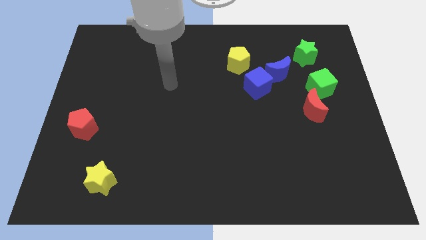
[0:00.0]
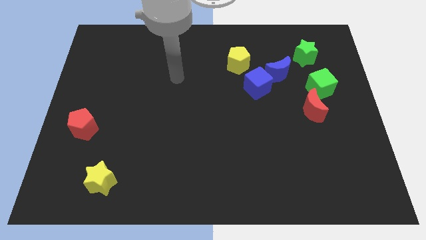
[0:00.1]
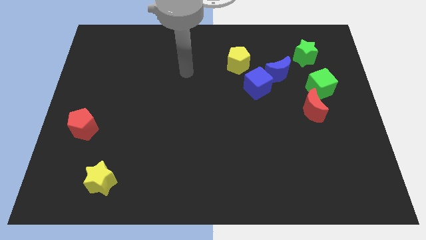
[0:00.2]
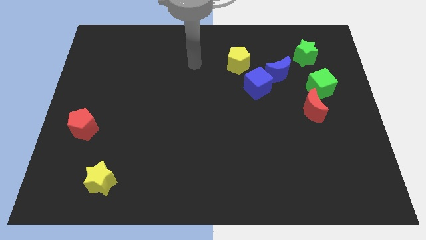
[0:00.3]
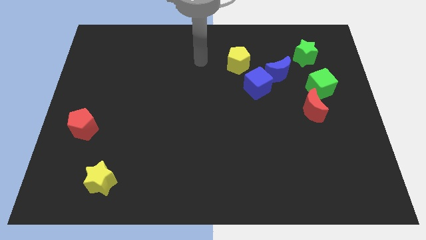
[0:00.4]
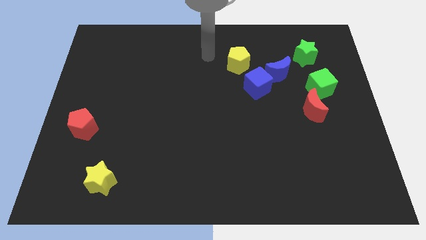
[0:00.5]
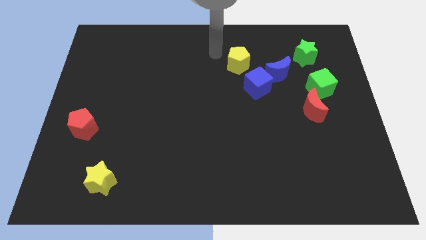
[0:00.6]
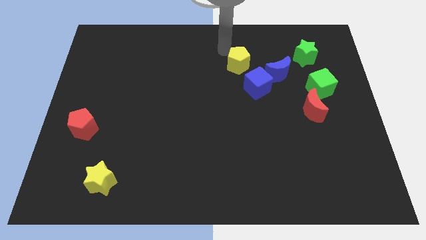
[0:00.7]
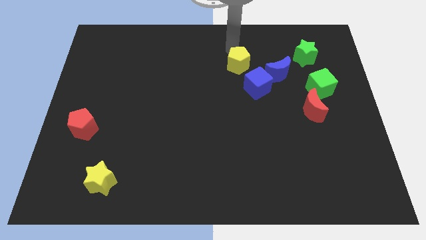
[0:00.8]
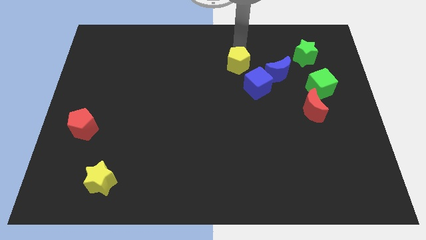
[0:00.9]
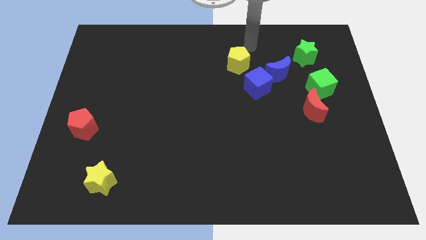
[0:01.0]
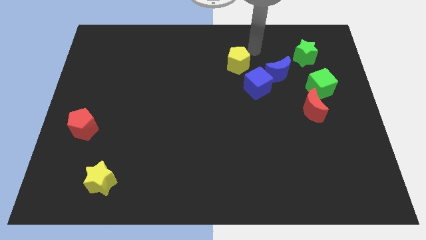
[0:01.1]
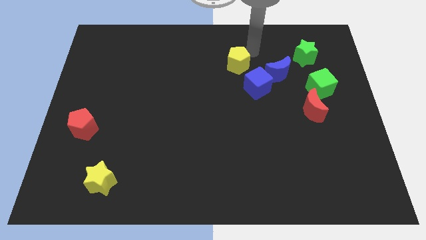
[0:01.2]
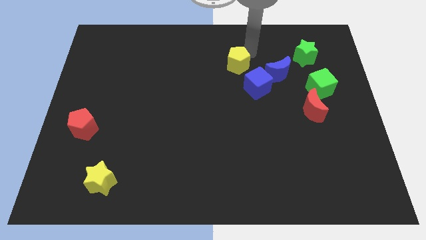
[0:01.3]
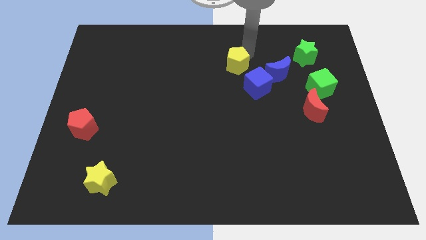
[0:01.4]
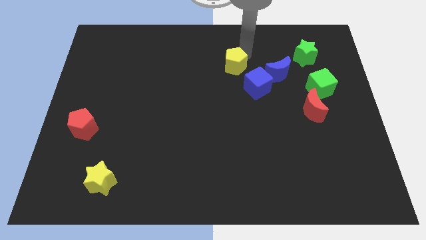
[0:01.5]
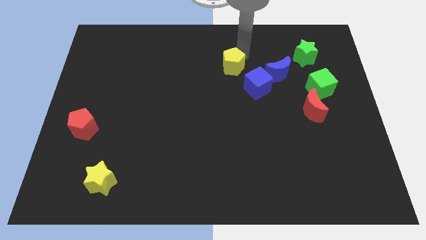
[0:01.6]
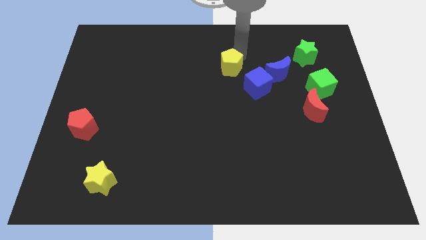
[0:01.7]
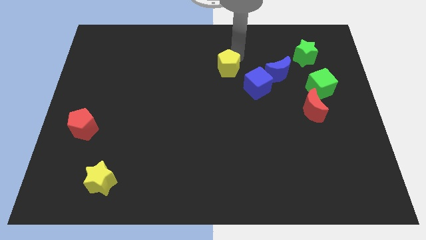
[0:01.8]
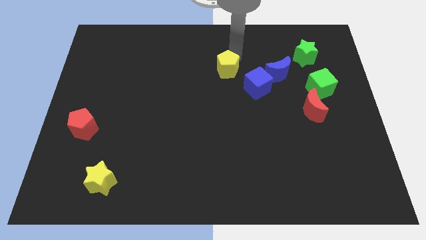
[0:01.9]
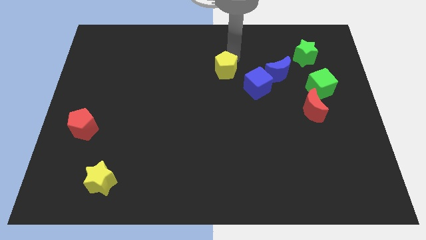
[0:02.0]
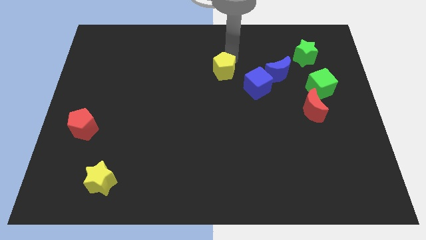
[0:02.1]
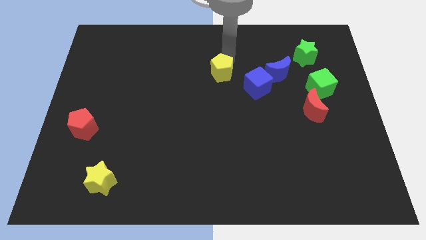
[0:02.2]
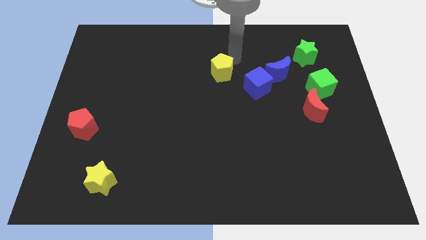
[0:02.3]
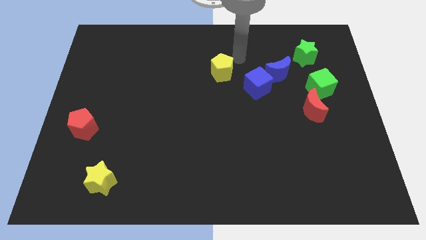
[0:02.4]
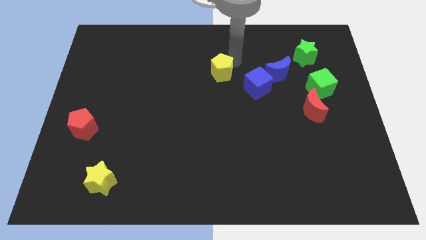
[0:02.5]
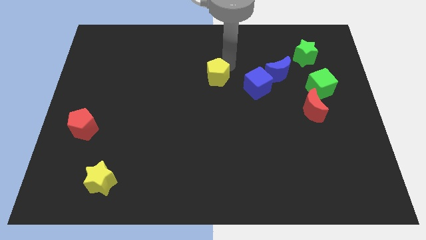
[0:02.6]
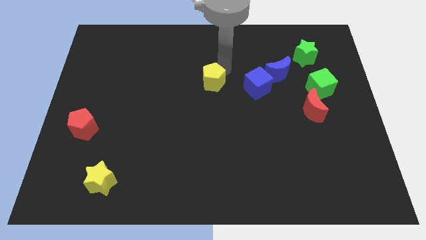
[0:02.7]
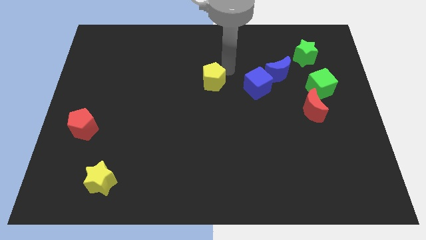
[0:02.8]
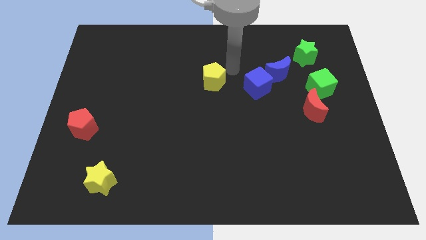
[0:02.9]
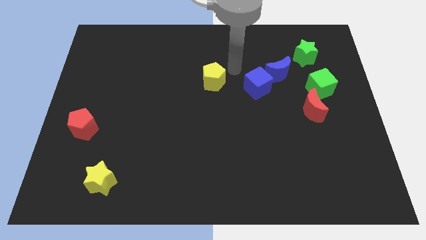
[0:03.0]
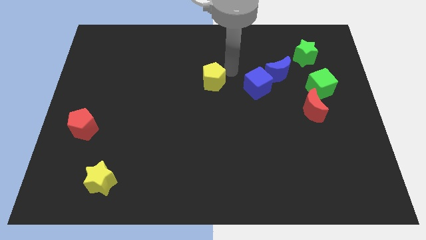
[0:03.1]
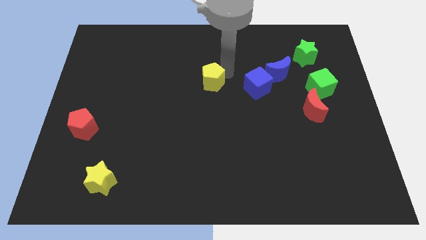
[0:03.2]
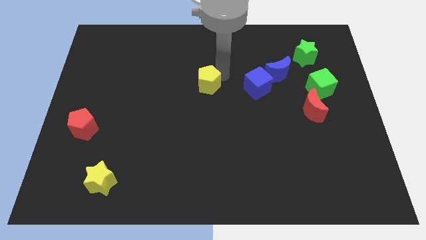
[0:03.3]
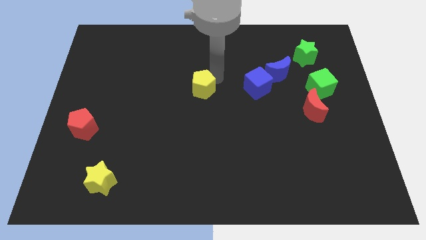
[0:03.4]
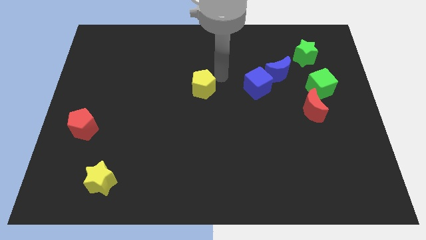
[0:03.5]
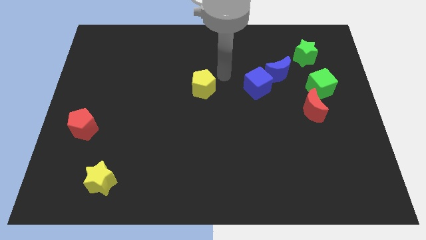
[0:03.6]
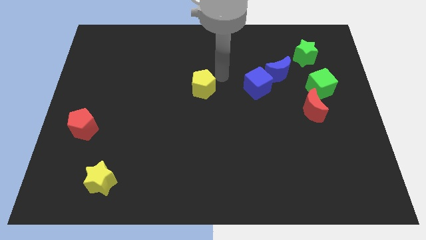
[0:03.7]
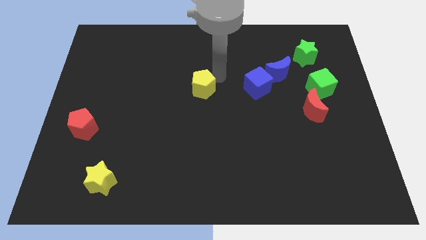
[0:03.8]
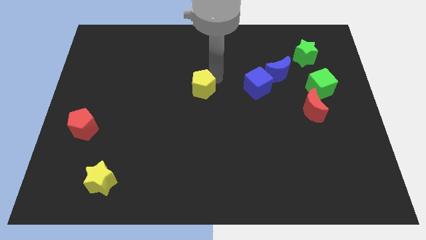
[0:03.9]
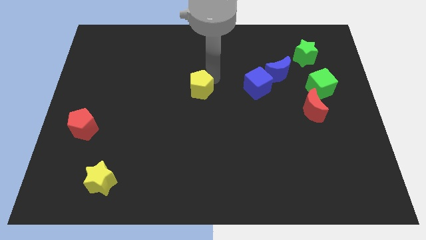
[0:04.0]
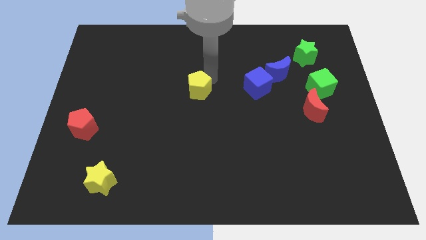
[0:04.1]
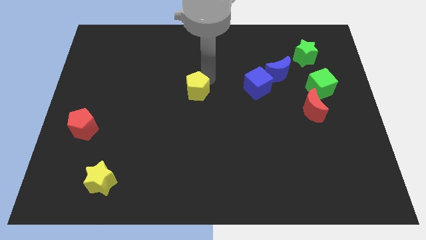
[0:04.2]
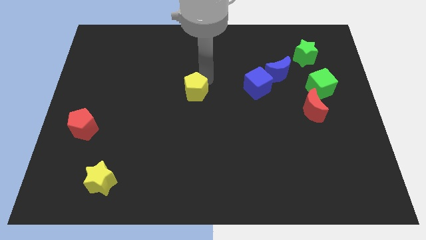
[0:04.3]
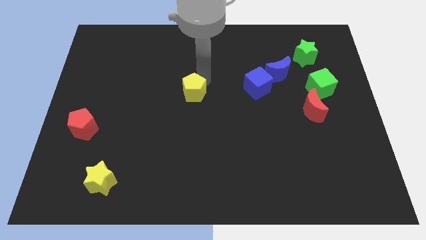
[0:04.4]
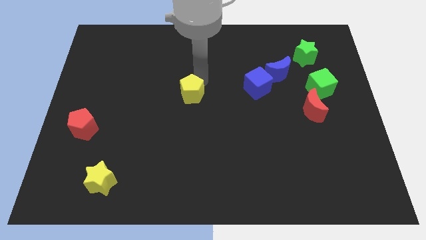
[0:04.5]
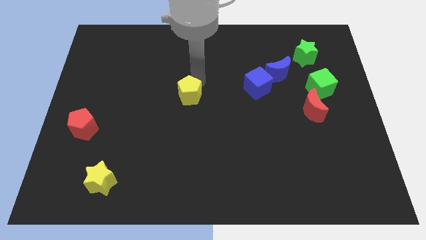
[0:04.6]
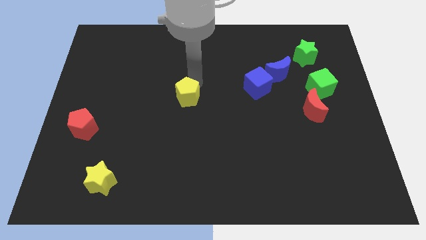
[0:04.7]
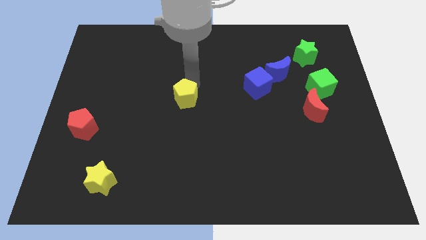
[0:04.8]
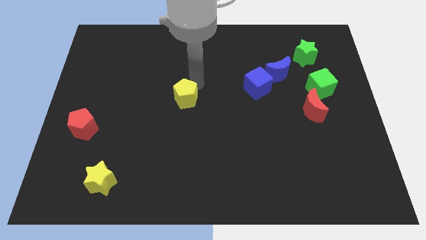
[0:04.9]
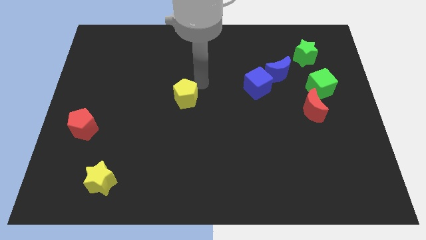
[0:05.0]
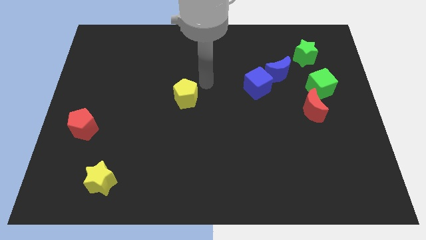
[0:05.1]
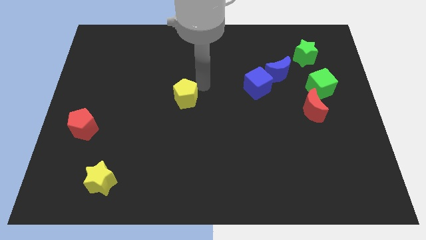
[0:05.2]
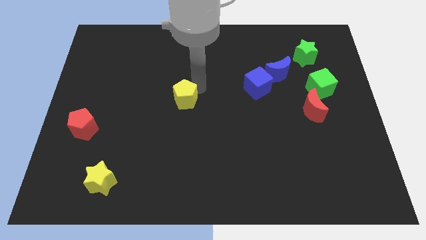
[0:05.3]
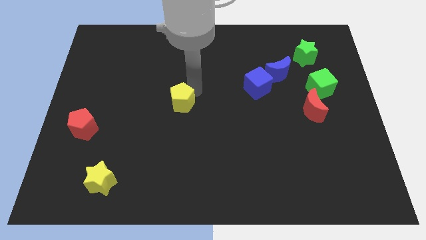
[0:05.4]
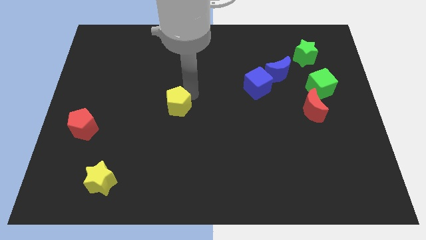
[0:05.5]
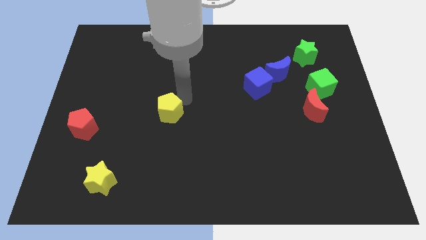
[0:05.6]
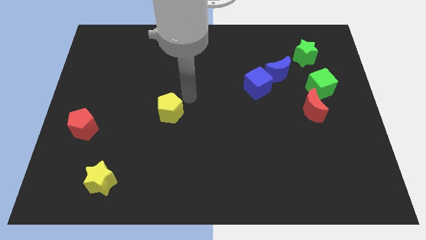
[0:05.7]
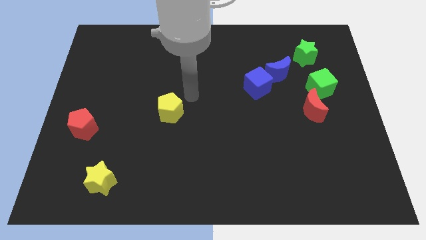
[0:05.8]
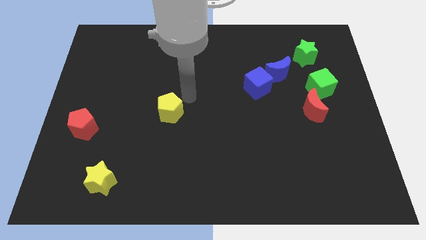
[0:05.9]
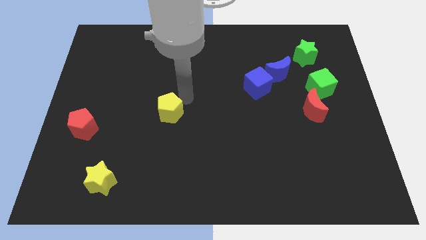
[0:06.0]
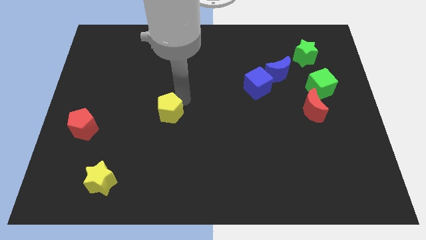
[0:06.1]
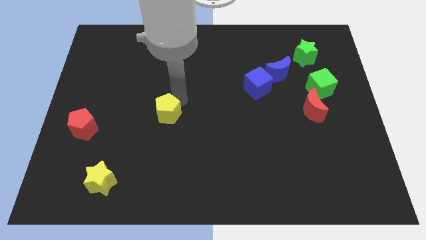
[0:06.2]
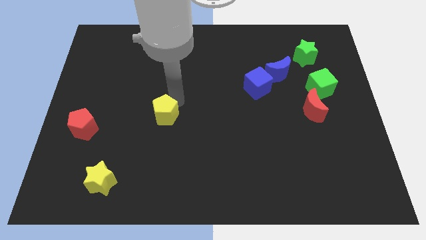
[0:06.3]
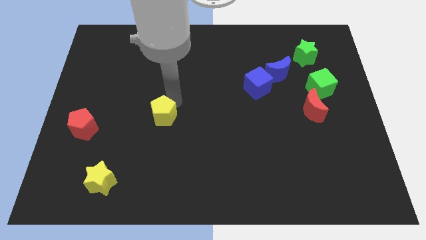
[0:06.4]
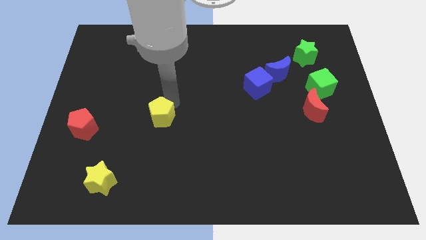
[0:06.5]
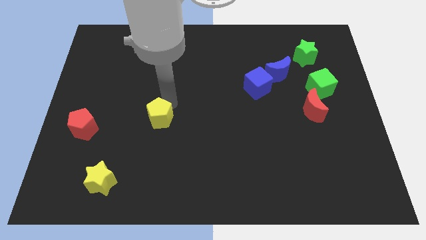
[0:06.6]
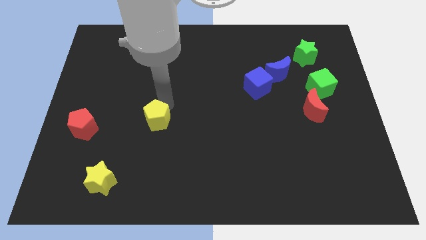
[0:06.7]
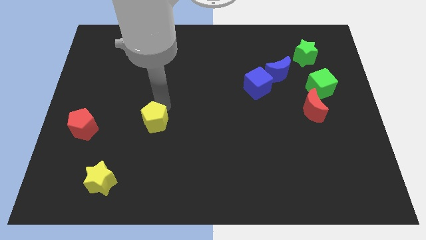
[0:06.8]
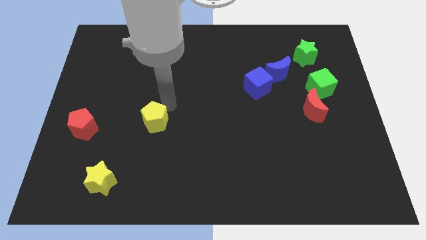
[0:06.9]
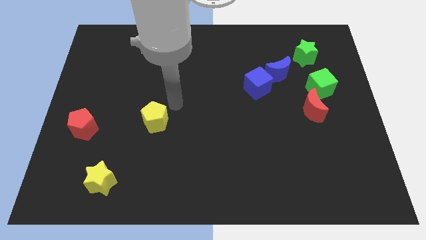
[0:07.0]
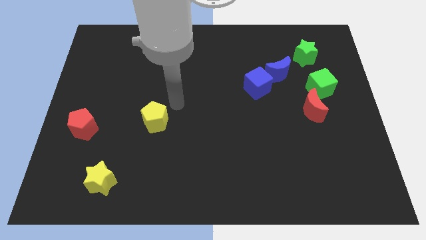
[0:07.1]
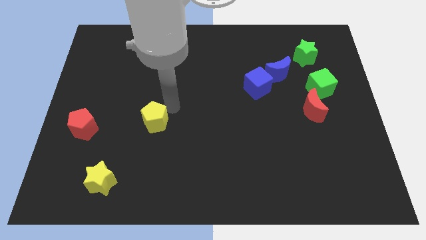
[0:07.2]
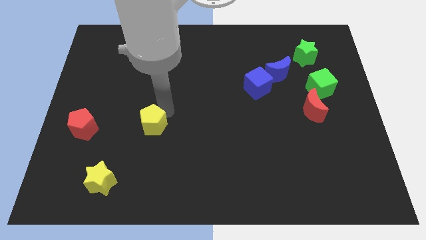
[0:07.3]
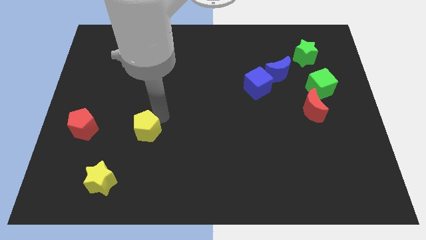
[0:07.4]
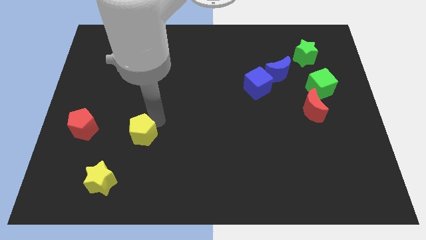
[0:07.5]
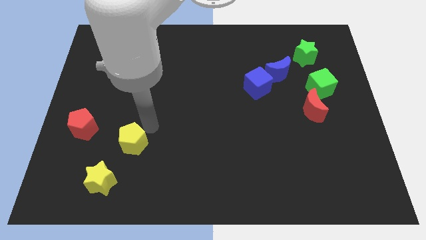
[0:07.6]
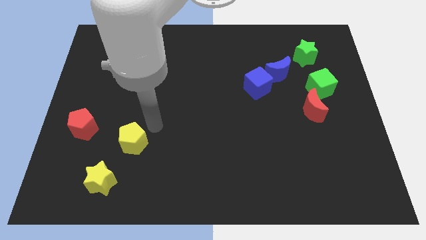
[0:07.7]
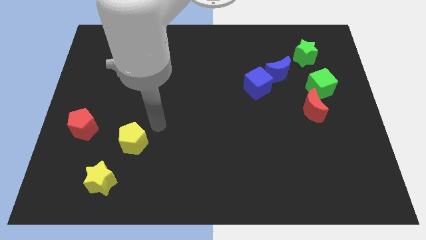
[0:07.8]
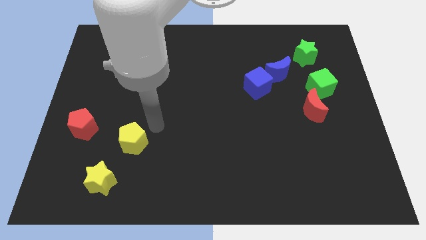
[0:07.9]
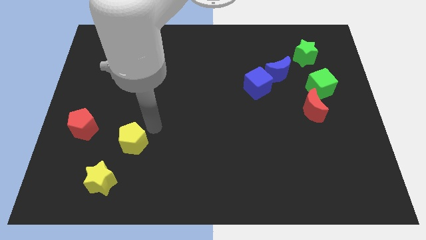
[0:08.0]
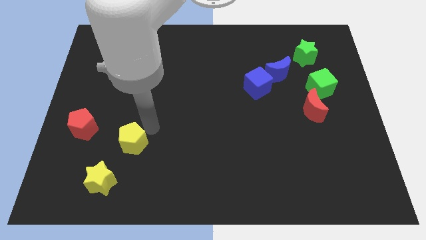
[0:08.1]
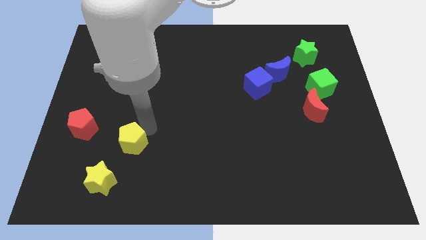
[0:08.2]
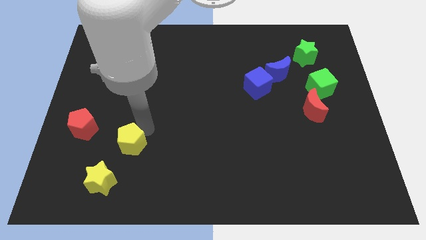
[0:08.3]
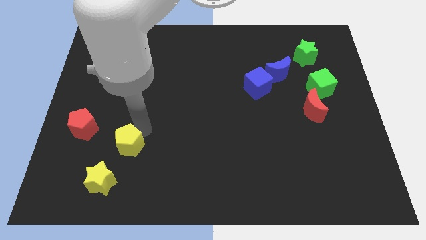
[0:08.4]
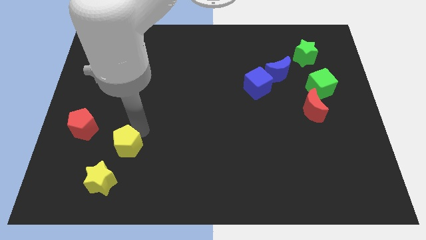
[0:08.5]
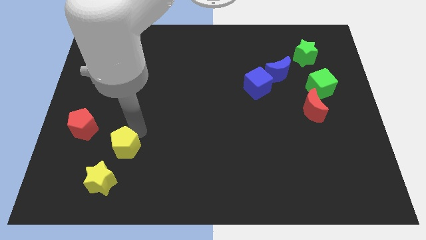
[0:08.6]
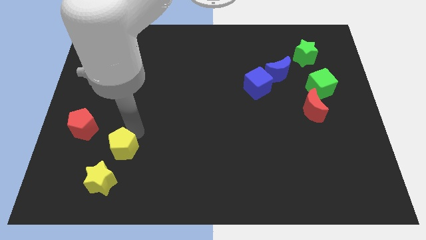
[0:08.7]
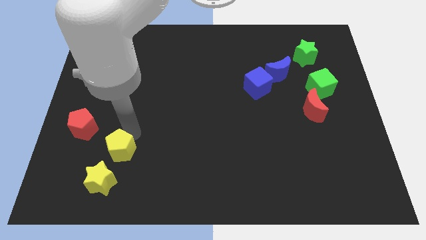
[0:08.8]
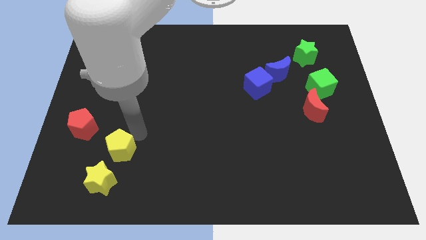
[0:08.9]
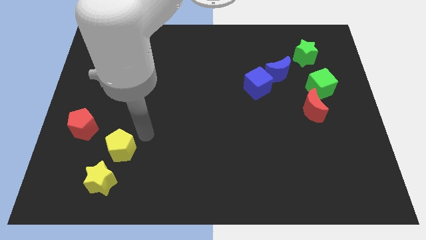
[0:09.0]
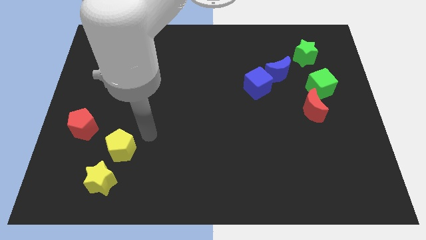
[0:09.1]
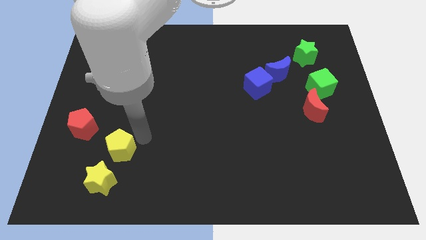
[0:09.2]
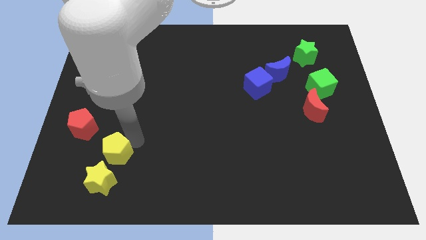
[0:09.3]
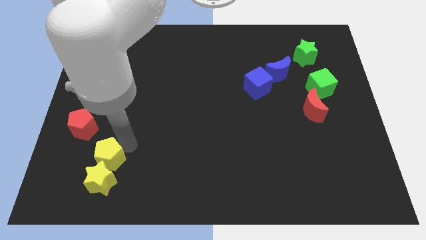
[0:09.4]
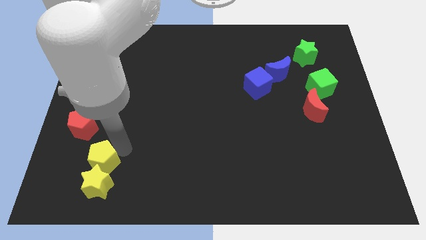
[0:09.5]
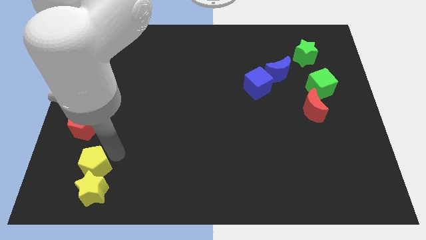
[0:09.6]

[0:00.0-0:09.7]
move the yellow pentagon below the red pentagon
